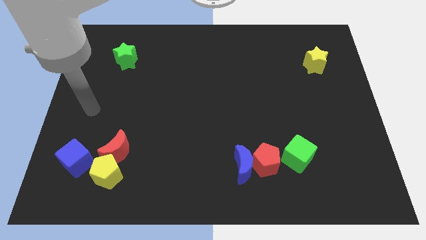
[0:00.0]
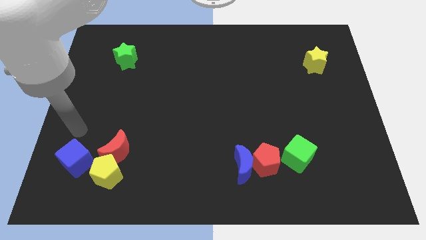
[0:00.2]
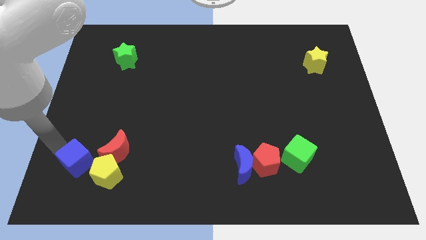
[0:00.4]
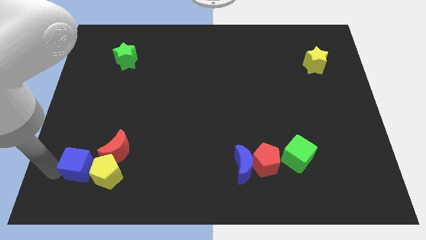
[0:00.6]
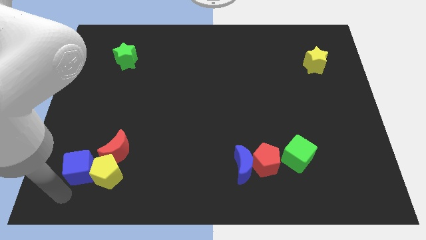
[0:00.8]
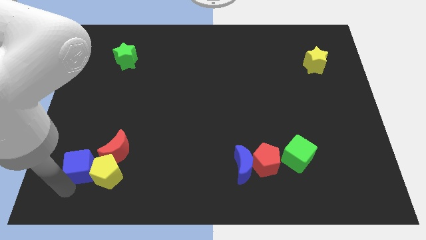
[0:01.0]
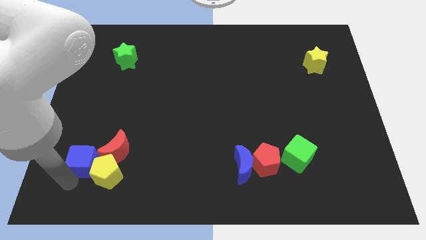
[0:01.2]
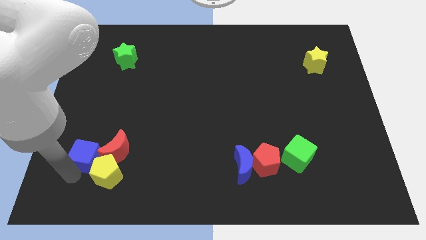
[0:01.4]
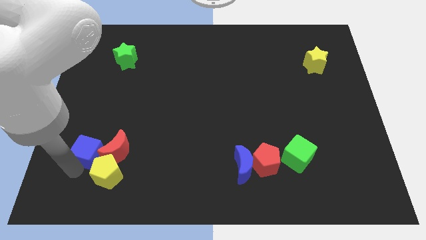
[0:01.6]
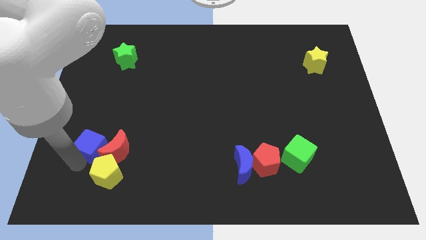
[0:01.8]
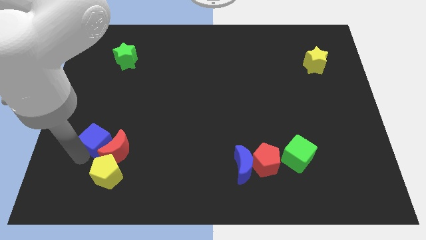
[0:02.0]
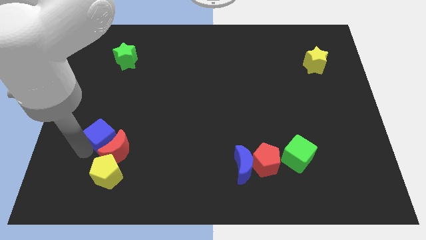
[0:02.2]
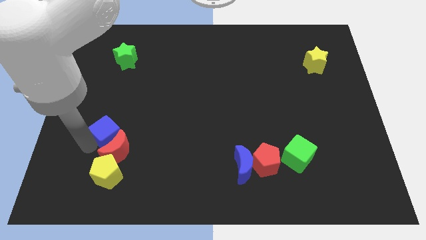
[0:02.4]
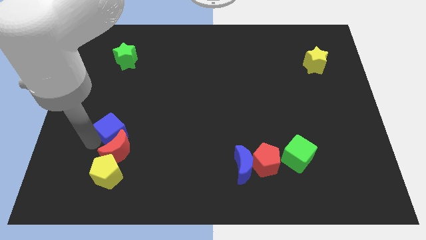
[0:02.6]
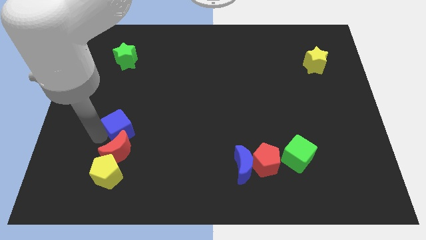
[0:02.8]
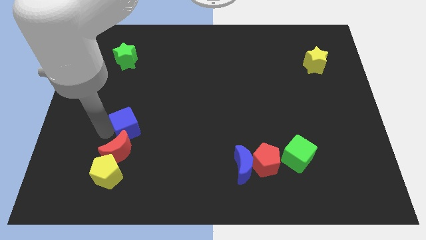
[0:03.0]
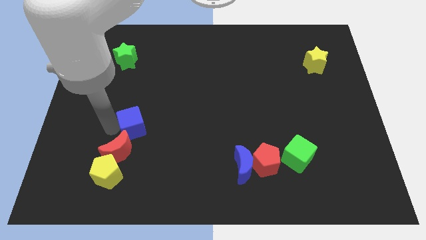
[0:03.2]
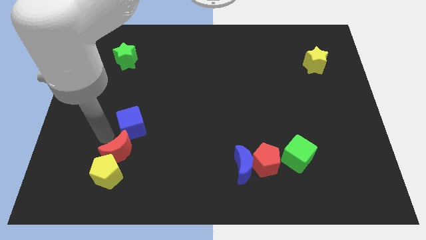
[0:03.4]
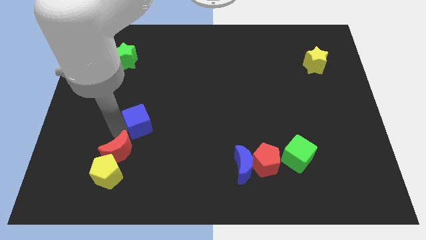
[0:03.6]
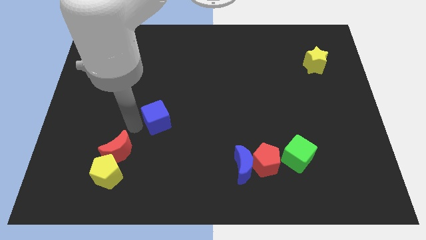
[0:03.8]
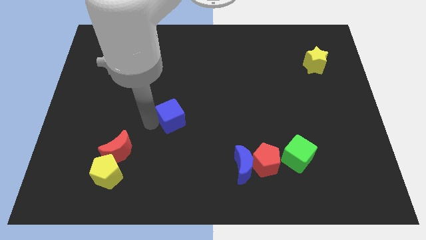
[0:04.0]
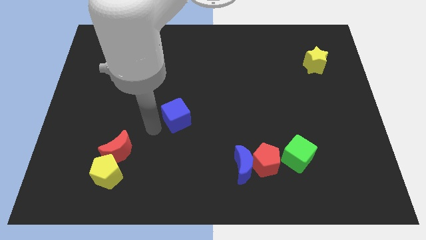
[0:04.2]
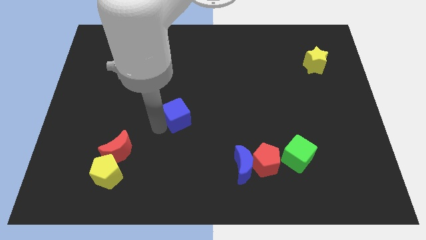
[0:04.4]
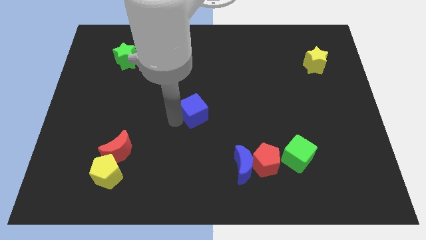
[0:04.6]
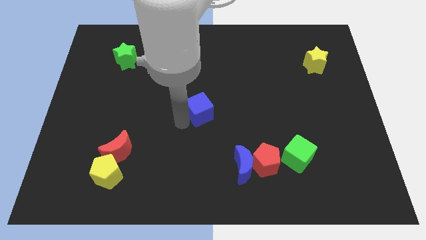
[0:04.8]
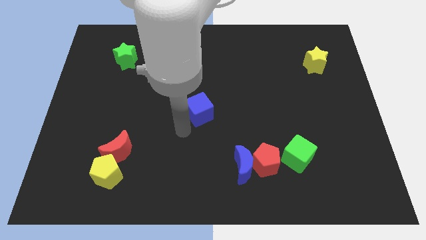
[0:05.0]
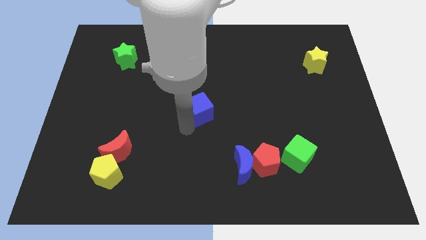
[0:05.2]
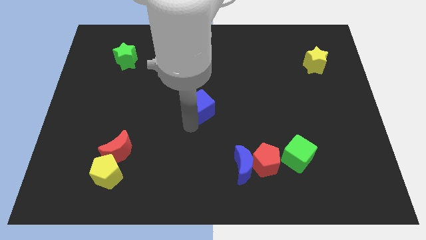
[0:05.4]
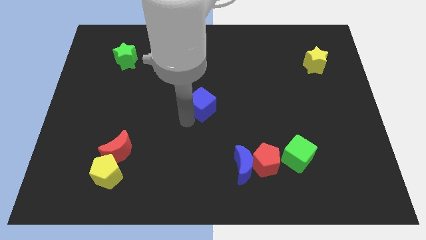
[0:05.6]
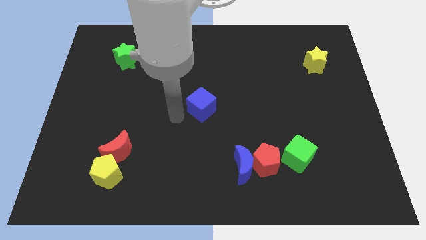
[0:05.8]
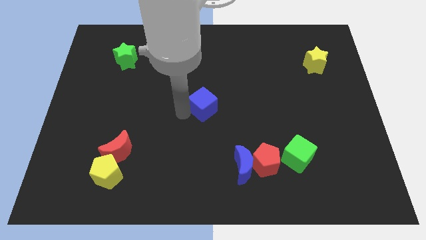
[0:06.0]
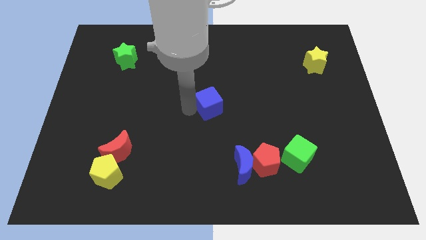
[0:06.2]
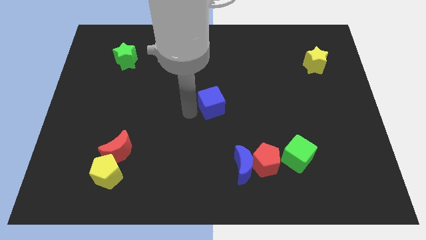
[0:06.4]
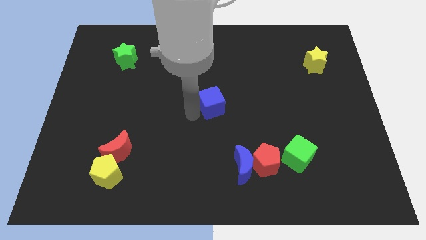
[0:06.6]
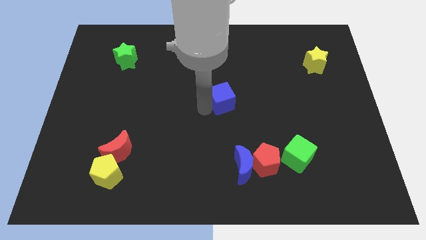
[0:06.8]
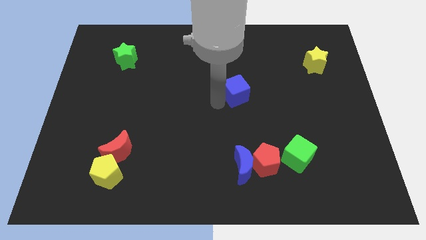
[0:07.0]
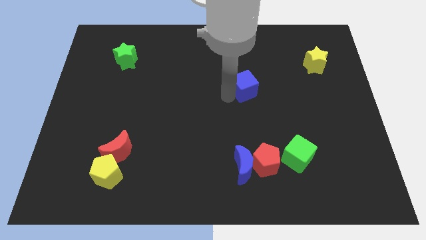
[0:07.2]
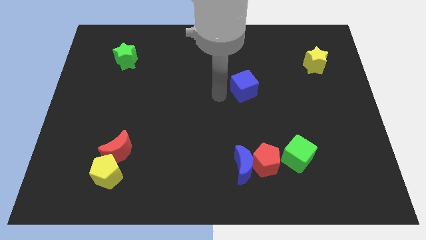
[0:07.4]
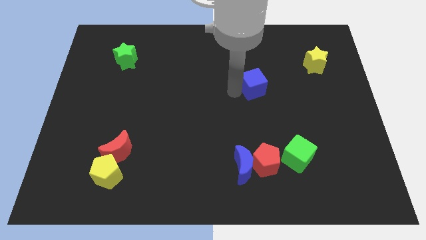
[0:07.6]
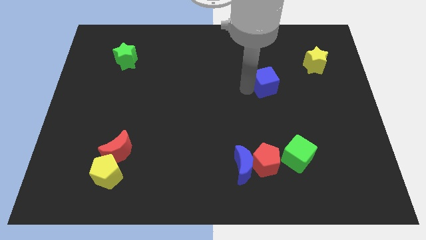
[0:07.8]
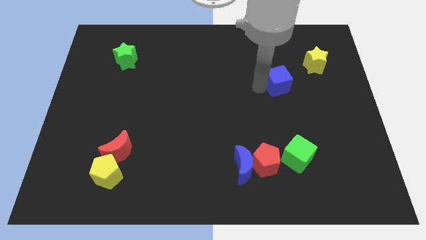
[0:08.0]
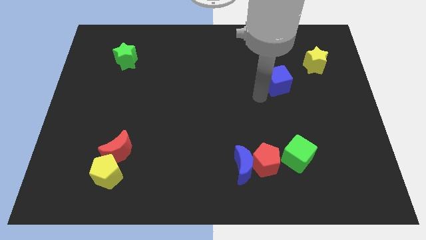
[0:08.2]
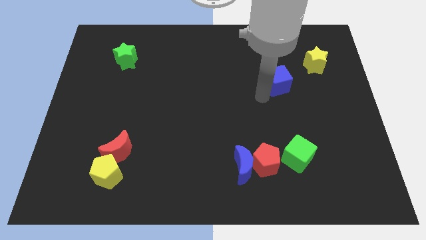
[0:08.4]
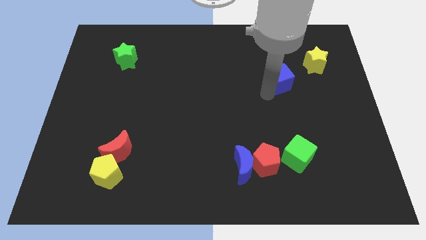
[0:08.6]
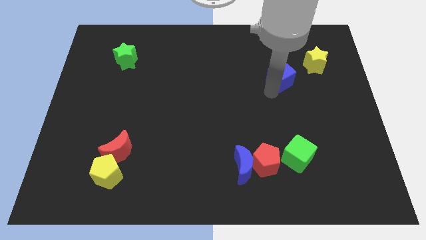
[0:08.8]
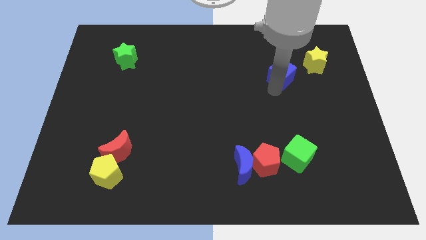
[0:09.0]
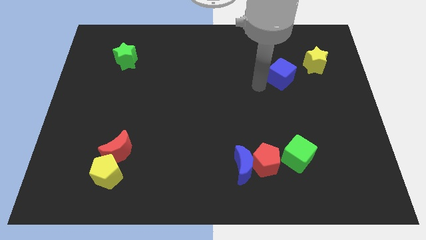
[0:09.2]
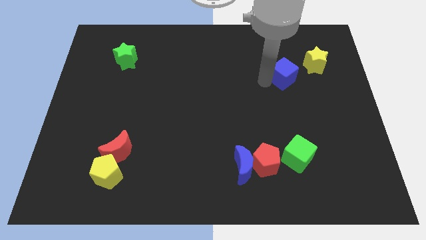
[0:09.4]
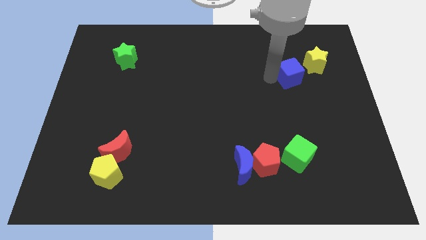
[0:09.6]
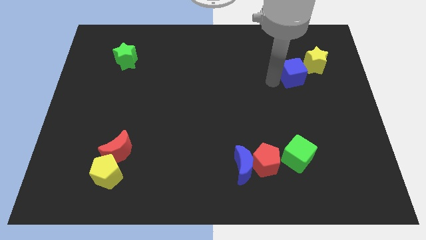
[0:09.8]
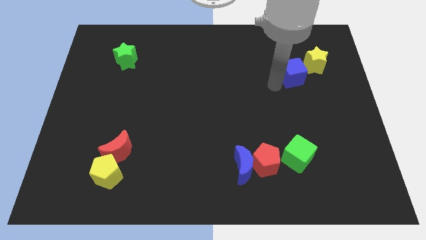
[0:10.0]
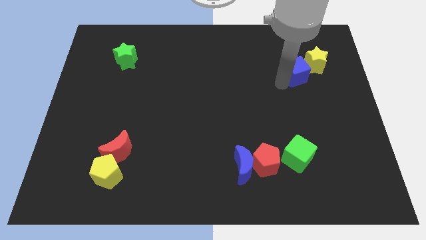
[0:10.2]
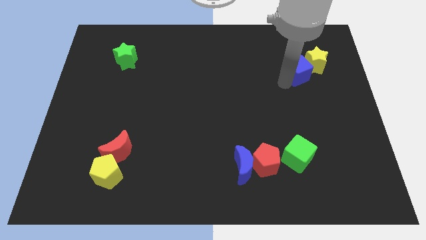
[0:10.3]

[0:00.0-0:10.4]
push the blue cube to the yellow star

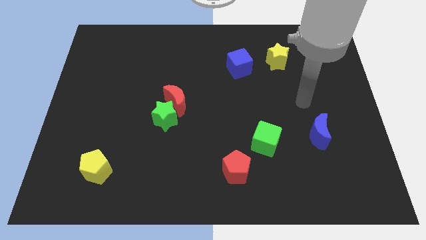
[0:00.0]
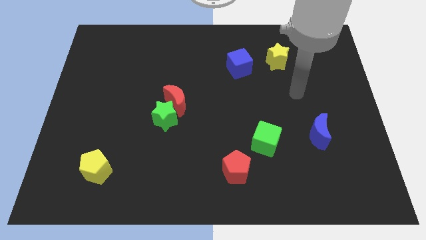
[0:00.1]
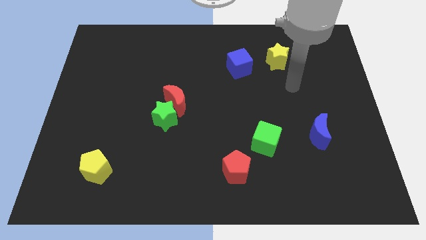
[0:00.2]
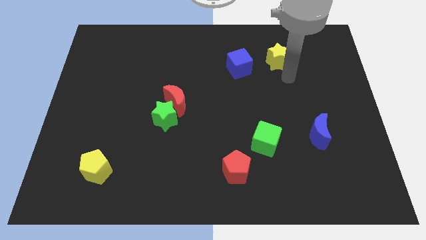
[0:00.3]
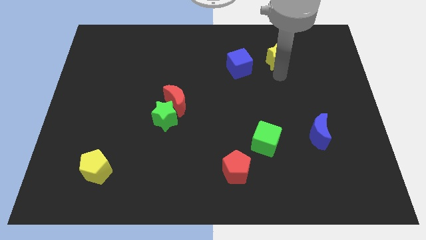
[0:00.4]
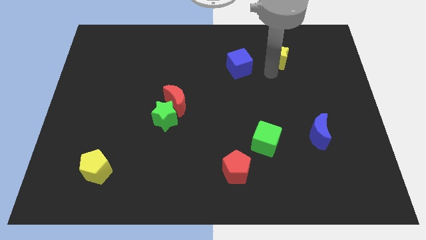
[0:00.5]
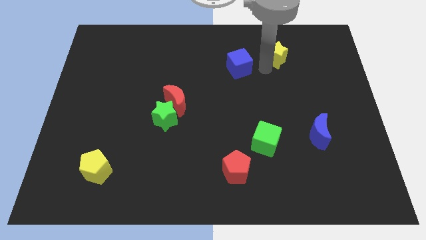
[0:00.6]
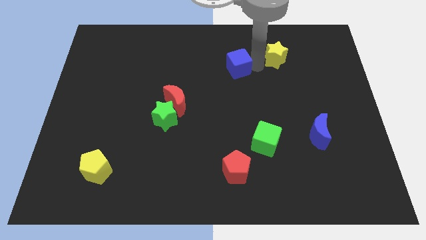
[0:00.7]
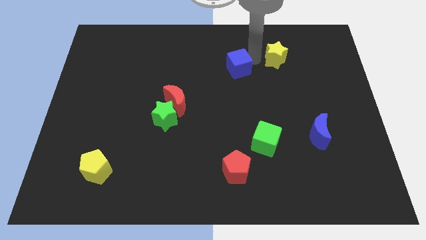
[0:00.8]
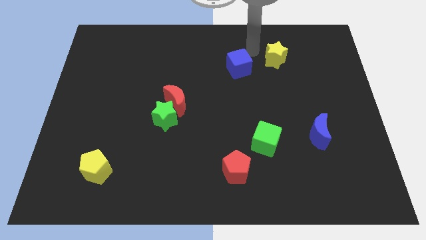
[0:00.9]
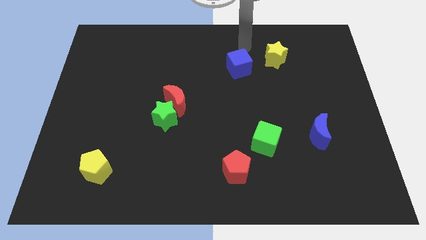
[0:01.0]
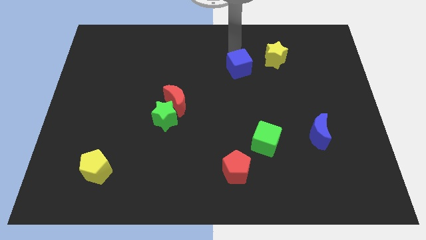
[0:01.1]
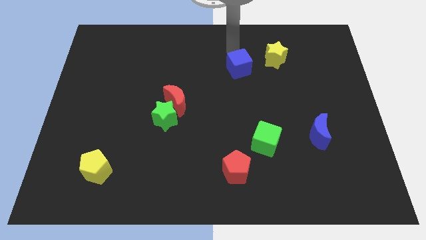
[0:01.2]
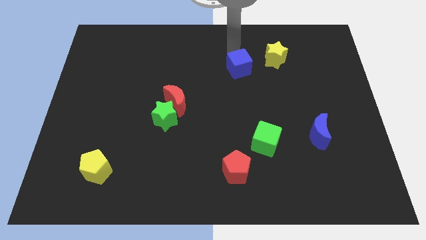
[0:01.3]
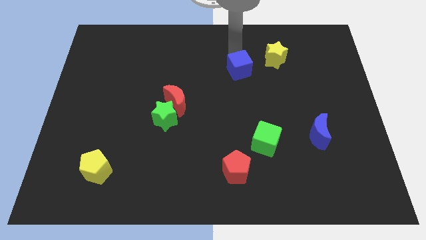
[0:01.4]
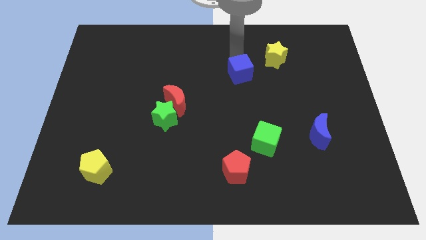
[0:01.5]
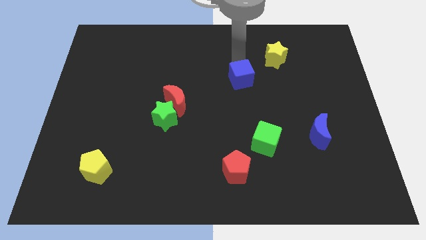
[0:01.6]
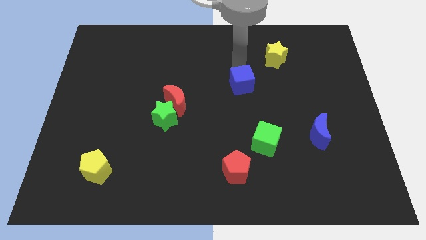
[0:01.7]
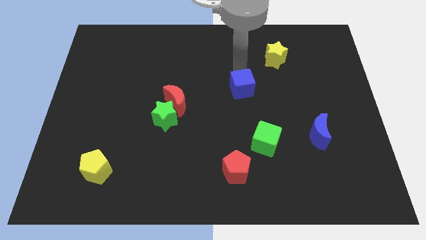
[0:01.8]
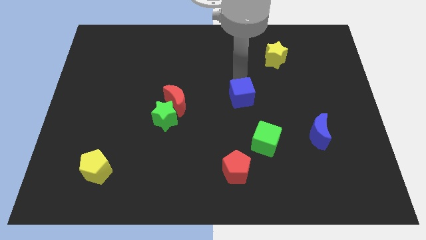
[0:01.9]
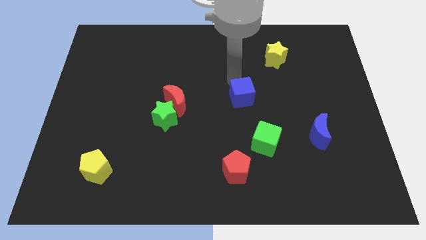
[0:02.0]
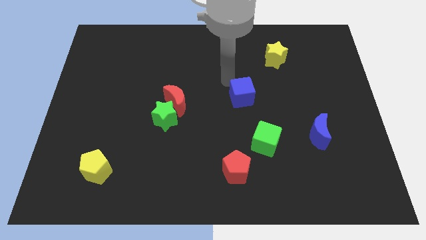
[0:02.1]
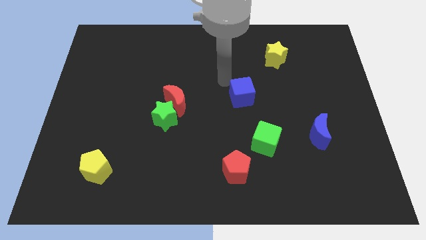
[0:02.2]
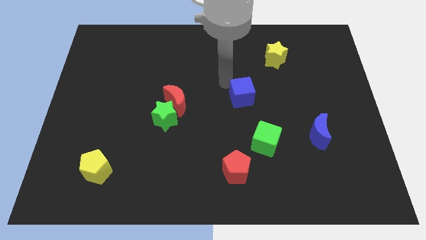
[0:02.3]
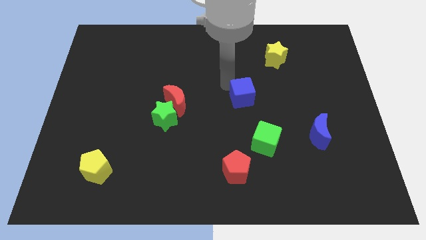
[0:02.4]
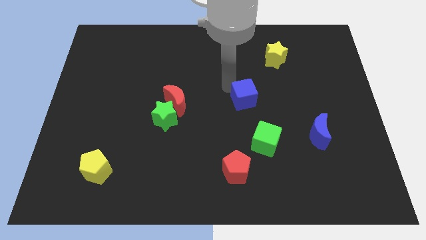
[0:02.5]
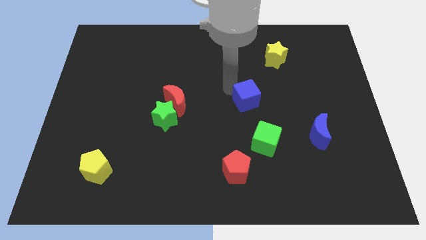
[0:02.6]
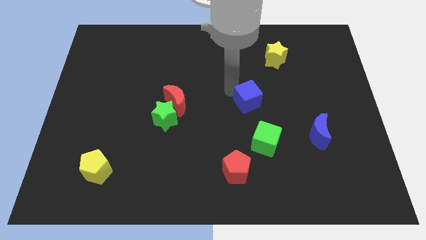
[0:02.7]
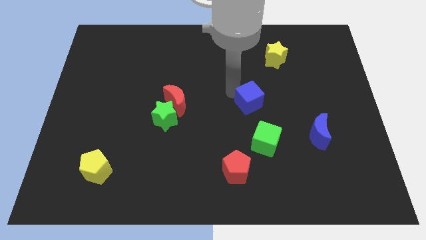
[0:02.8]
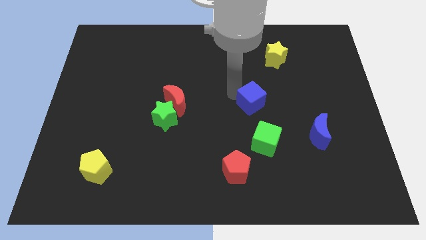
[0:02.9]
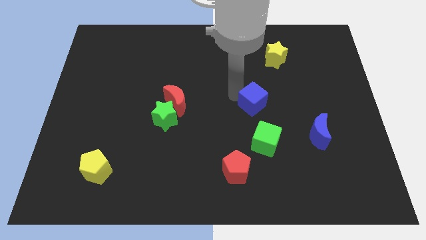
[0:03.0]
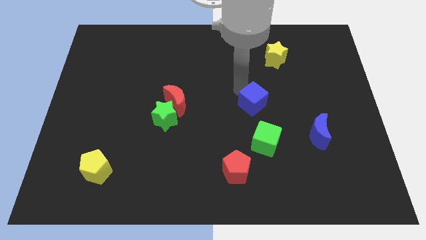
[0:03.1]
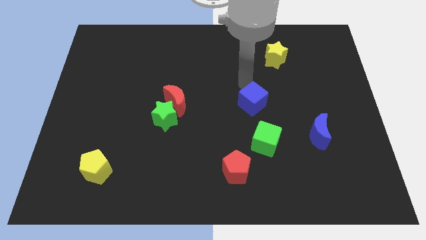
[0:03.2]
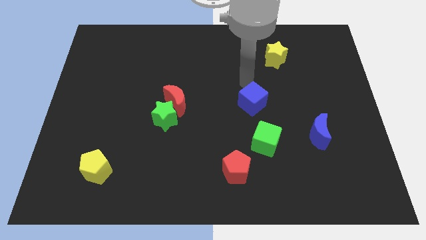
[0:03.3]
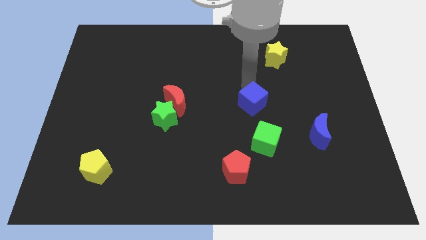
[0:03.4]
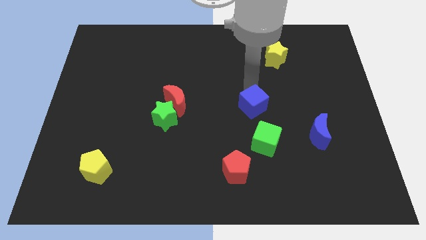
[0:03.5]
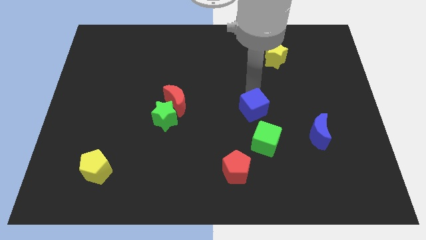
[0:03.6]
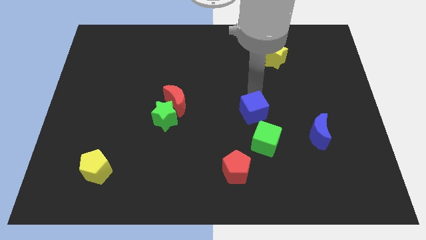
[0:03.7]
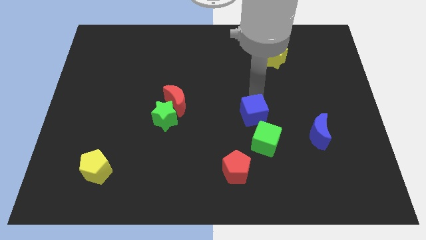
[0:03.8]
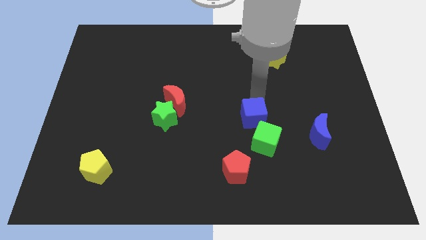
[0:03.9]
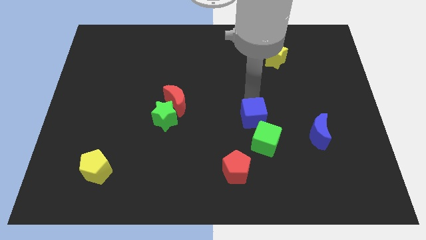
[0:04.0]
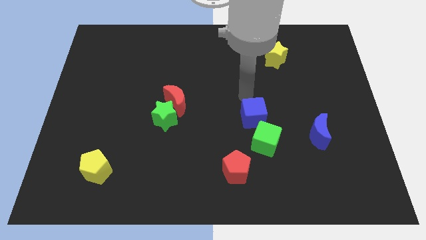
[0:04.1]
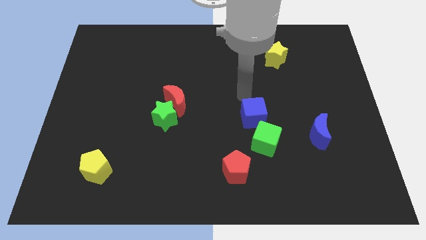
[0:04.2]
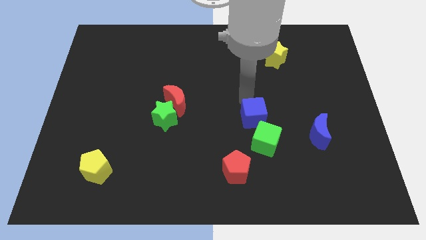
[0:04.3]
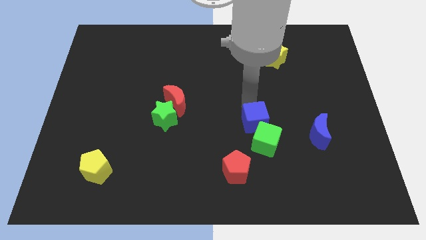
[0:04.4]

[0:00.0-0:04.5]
push the blue cube next to the green cube
